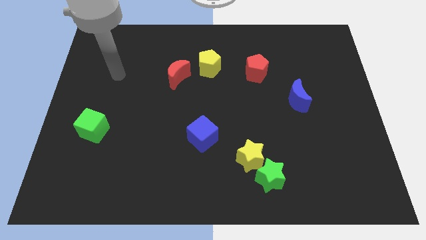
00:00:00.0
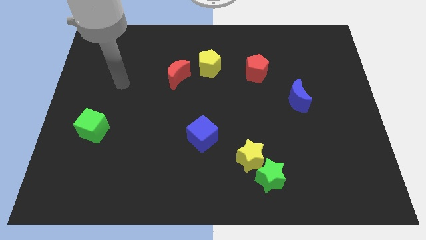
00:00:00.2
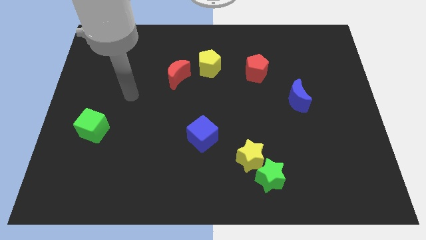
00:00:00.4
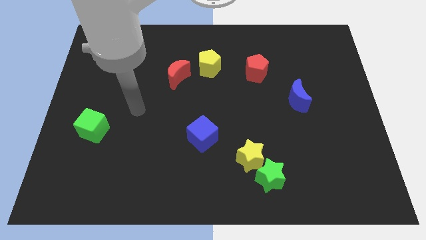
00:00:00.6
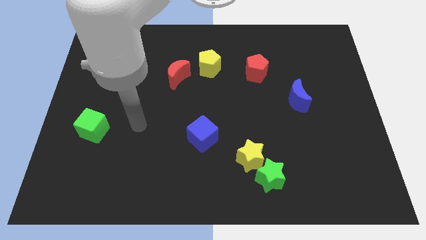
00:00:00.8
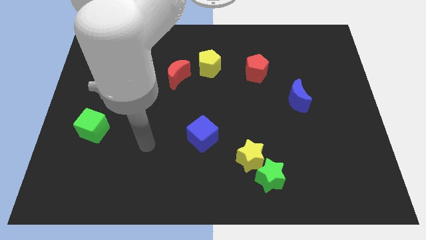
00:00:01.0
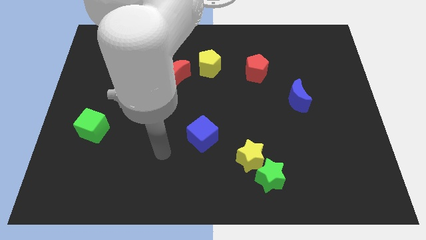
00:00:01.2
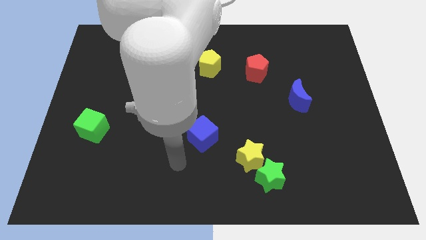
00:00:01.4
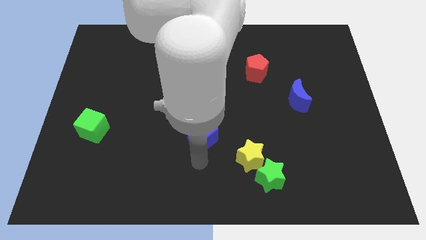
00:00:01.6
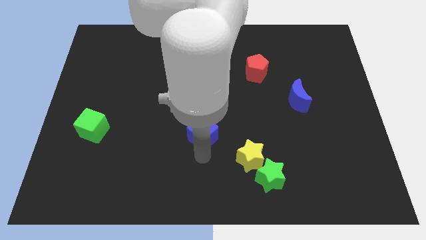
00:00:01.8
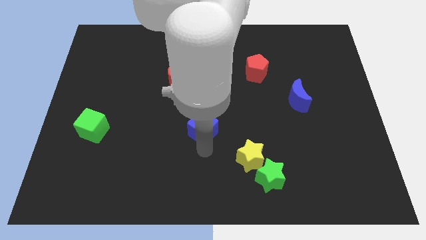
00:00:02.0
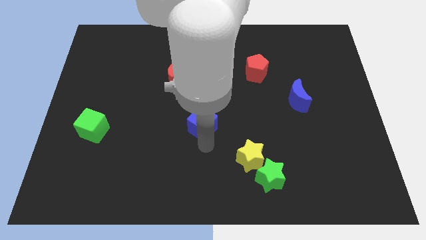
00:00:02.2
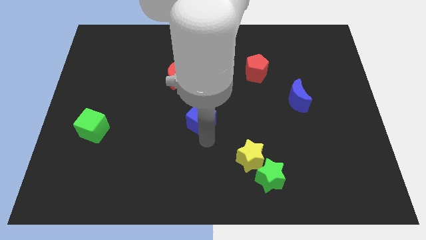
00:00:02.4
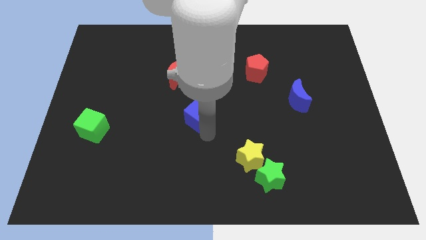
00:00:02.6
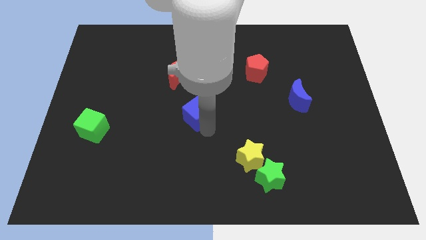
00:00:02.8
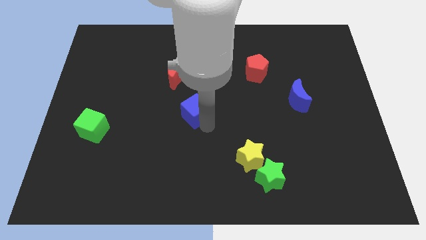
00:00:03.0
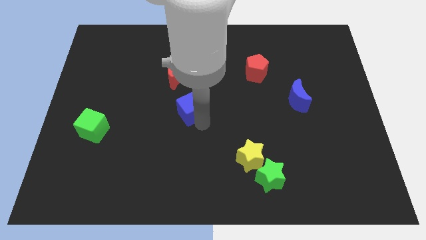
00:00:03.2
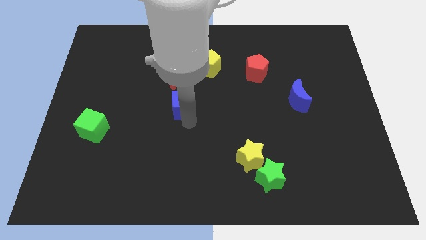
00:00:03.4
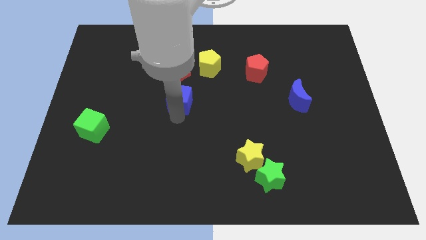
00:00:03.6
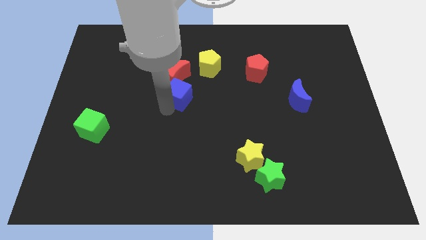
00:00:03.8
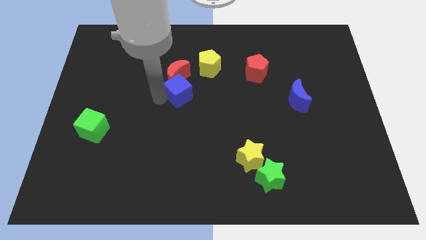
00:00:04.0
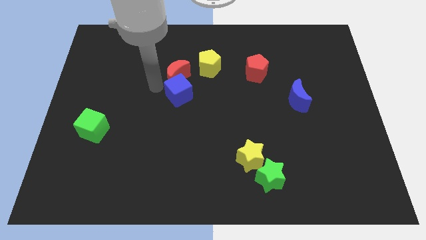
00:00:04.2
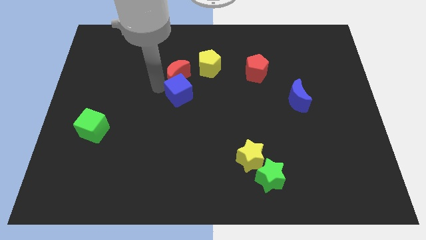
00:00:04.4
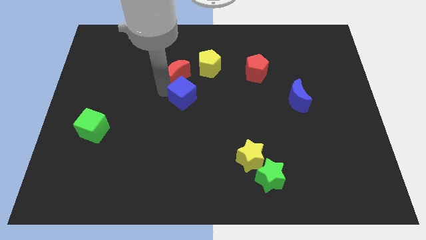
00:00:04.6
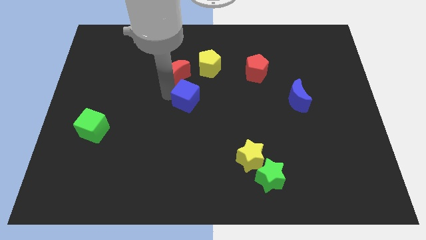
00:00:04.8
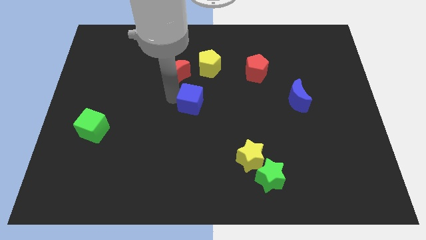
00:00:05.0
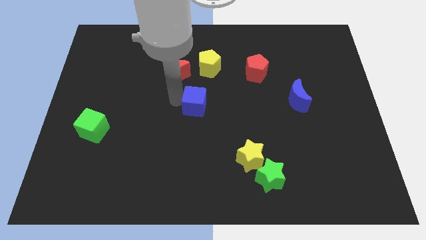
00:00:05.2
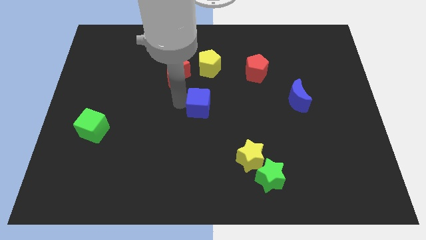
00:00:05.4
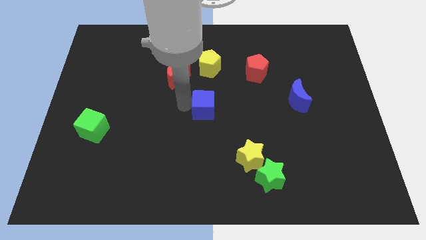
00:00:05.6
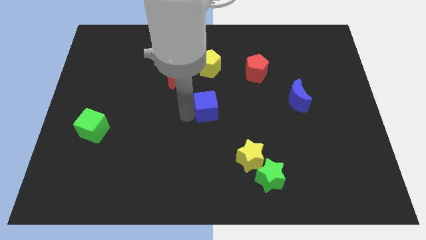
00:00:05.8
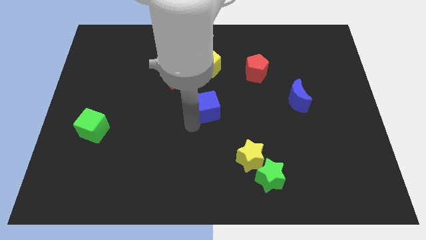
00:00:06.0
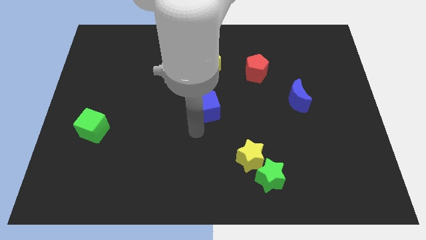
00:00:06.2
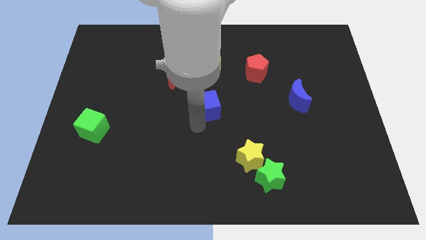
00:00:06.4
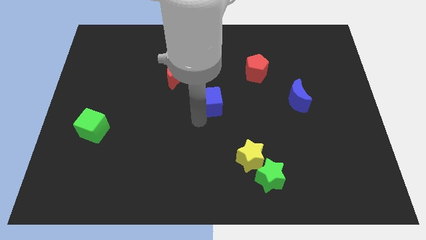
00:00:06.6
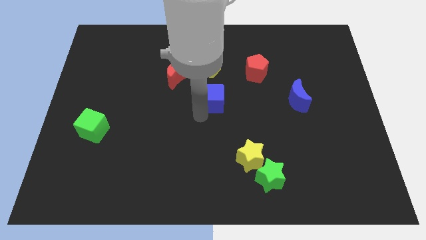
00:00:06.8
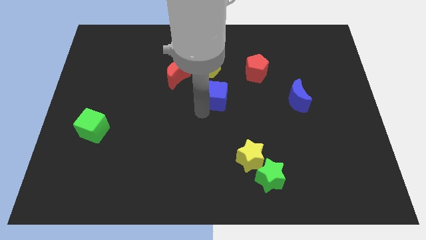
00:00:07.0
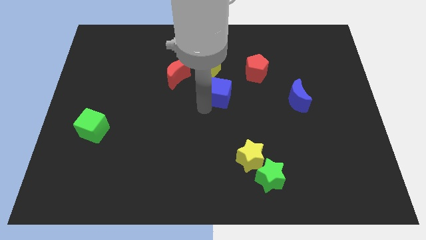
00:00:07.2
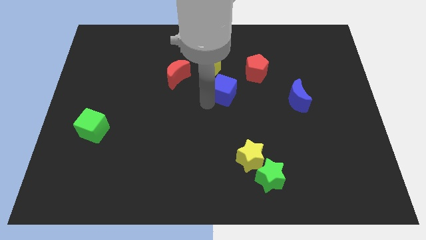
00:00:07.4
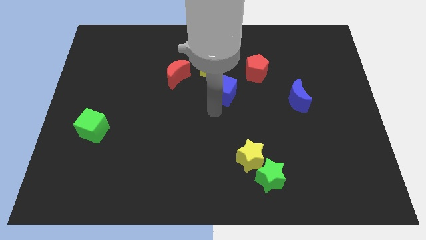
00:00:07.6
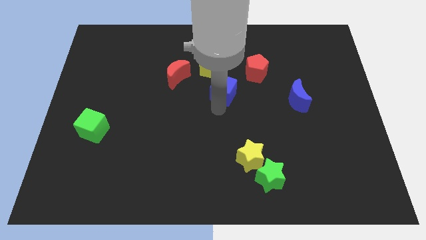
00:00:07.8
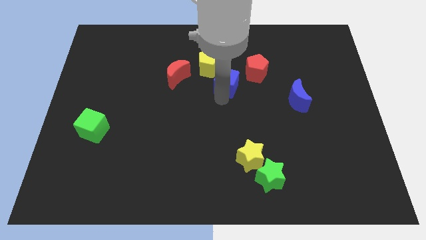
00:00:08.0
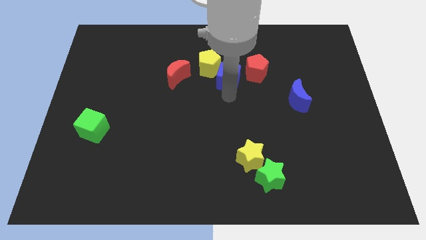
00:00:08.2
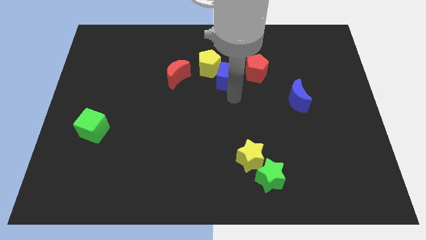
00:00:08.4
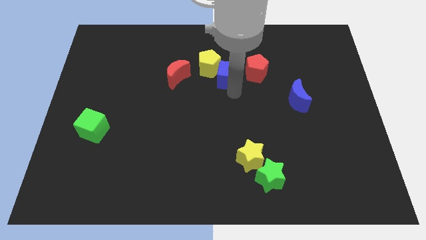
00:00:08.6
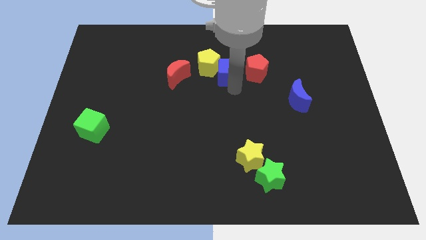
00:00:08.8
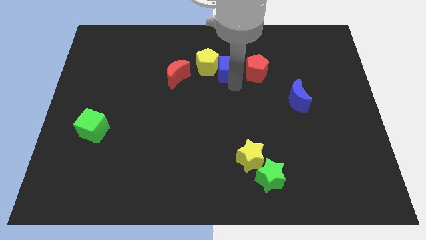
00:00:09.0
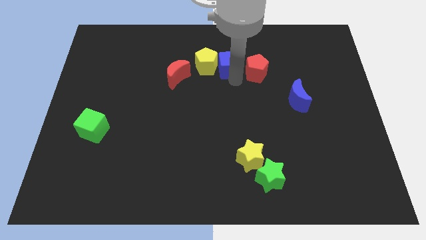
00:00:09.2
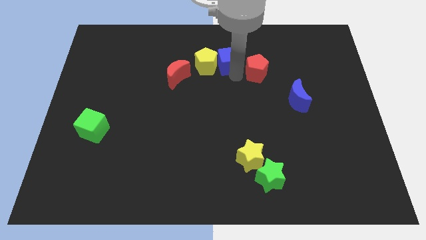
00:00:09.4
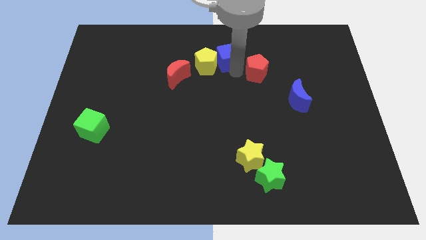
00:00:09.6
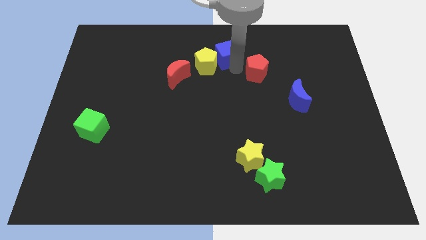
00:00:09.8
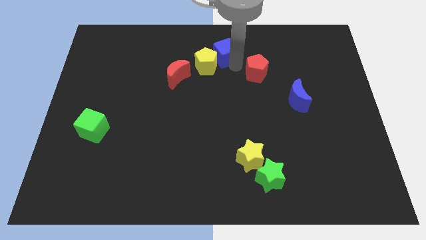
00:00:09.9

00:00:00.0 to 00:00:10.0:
slide the blue cube to the towards your base

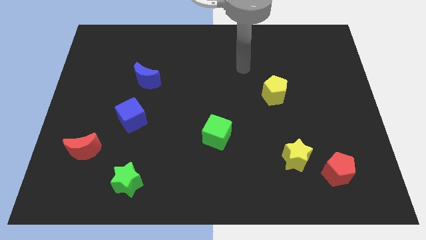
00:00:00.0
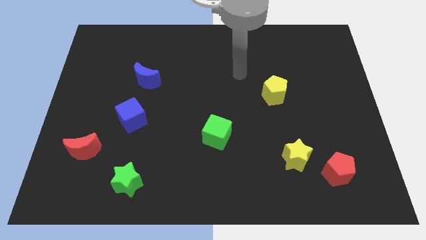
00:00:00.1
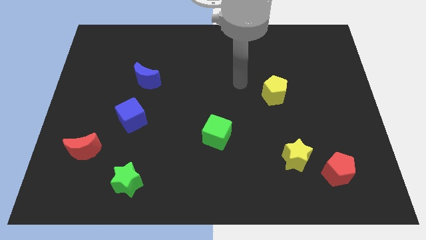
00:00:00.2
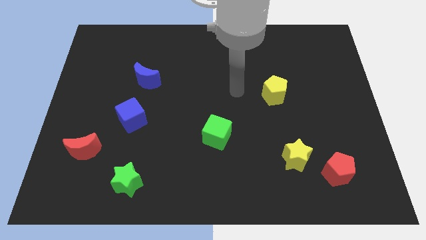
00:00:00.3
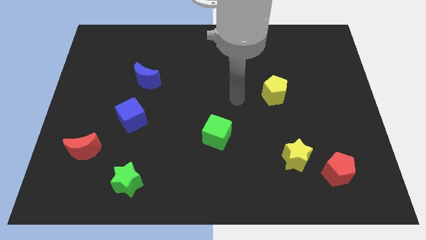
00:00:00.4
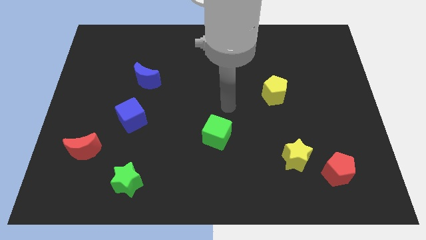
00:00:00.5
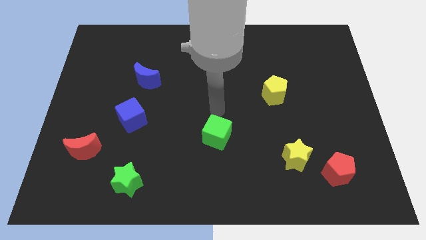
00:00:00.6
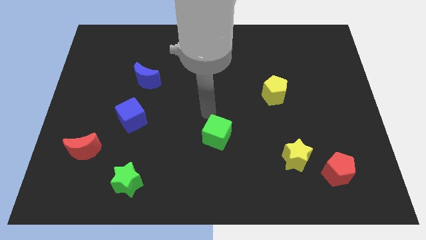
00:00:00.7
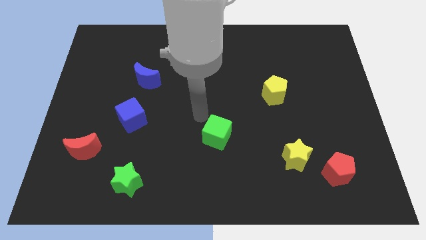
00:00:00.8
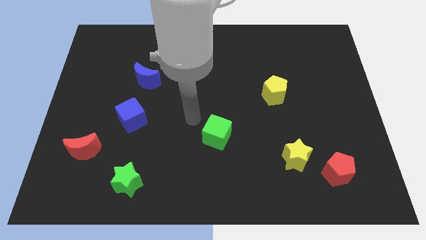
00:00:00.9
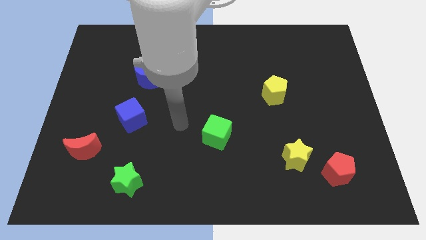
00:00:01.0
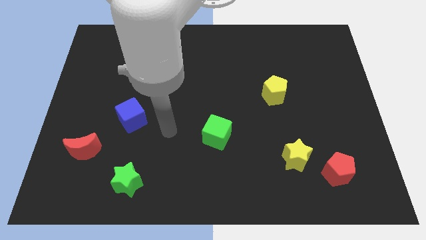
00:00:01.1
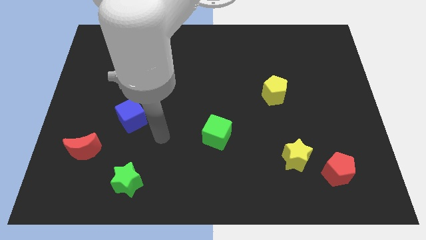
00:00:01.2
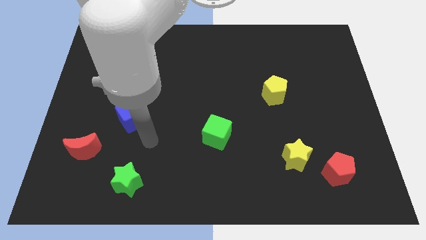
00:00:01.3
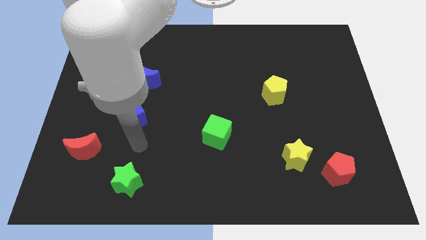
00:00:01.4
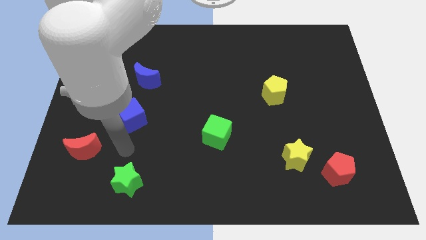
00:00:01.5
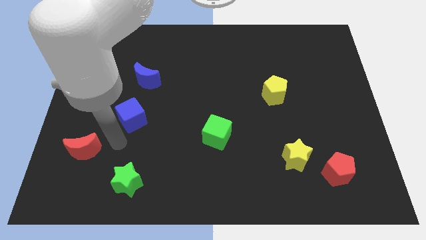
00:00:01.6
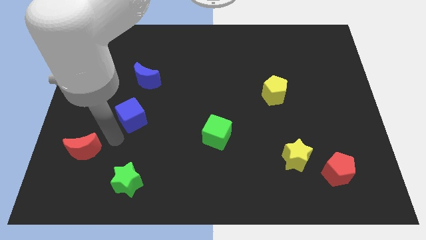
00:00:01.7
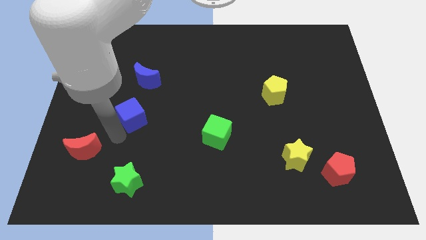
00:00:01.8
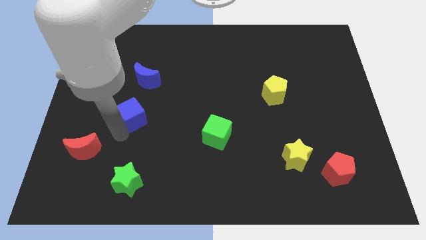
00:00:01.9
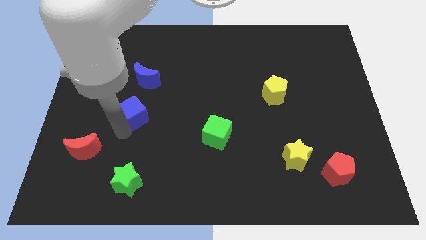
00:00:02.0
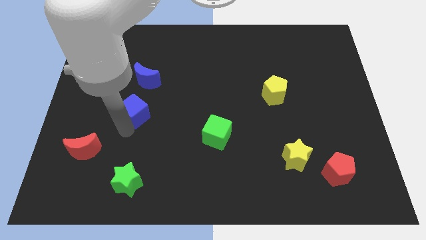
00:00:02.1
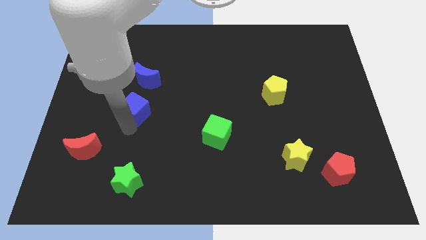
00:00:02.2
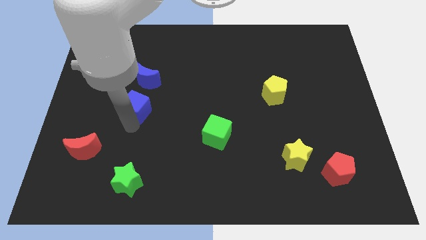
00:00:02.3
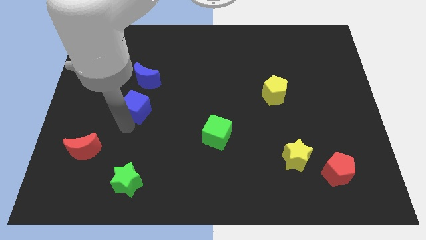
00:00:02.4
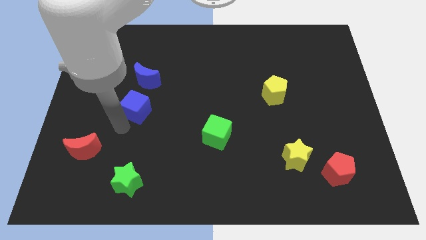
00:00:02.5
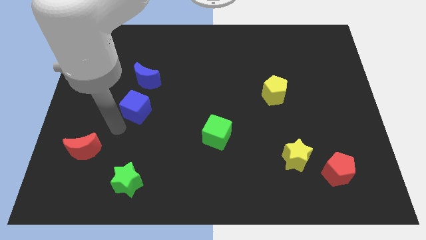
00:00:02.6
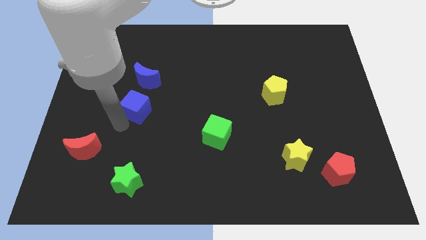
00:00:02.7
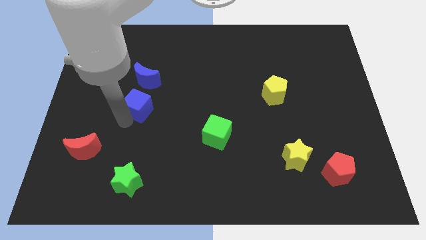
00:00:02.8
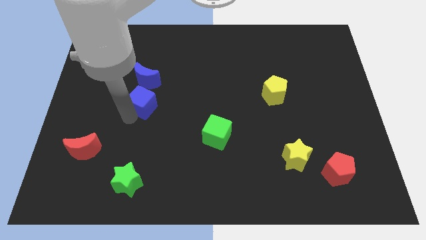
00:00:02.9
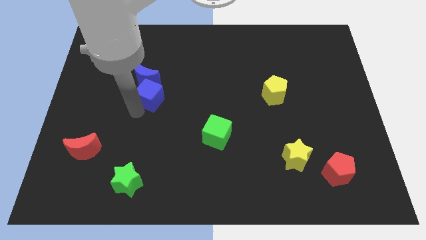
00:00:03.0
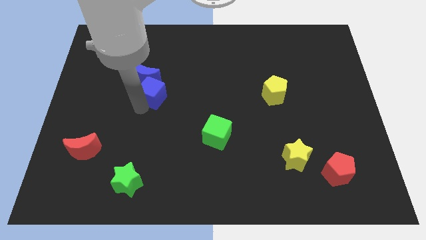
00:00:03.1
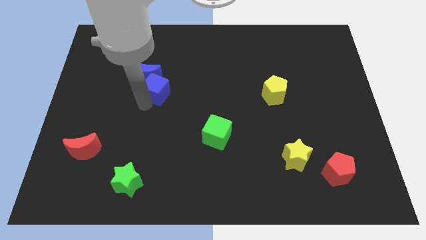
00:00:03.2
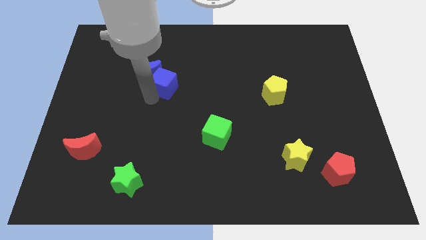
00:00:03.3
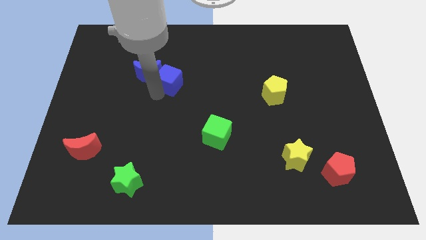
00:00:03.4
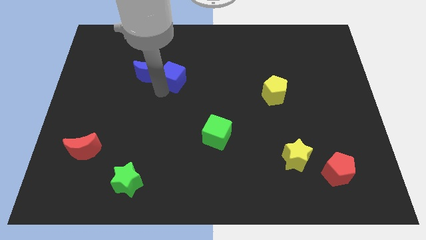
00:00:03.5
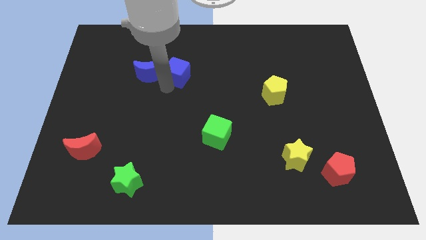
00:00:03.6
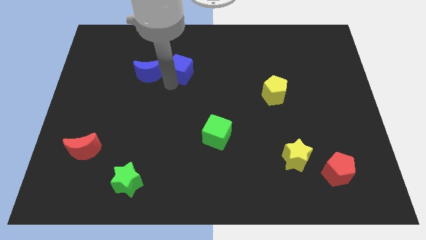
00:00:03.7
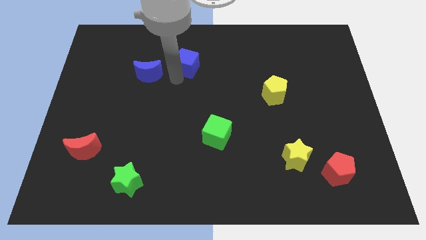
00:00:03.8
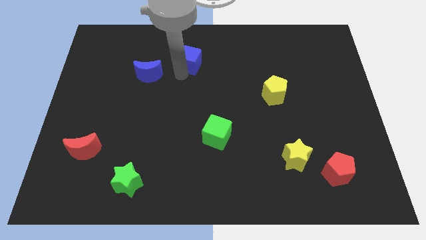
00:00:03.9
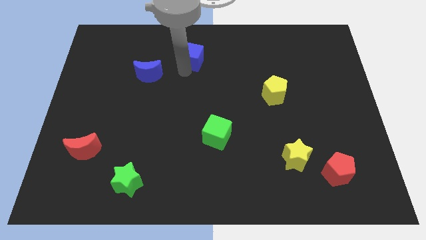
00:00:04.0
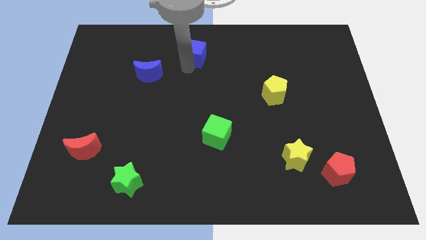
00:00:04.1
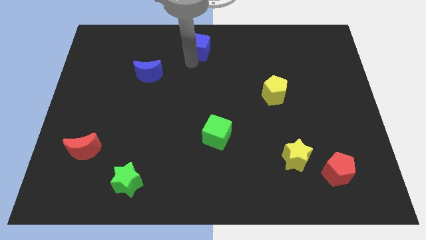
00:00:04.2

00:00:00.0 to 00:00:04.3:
put the blue cube to the towards your base
